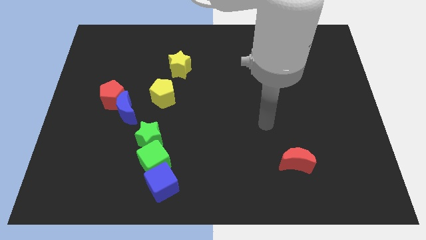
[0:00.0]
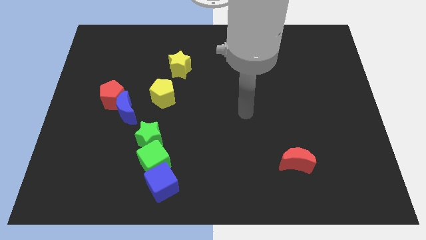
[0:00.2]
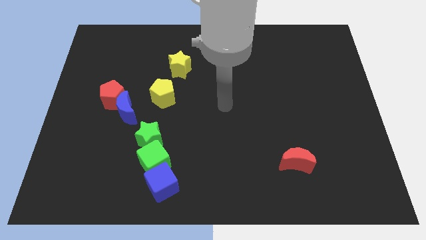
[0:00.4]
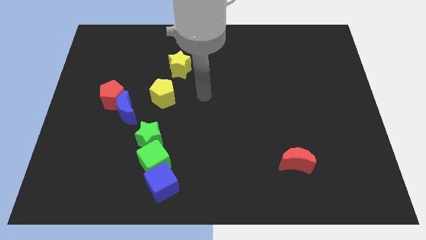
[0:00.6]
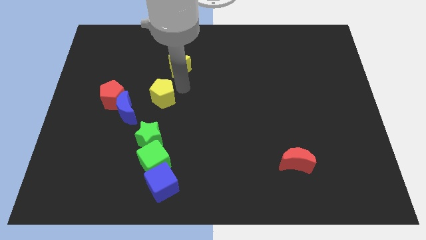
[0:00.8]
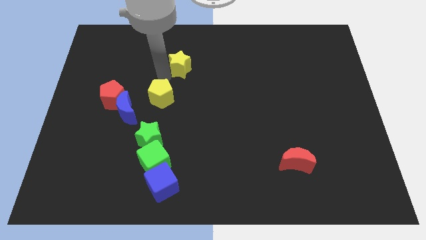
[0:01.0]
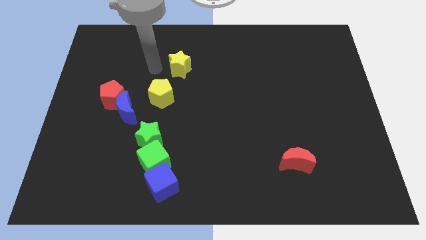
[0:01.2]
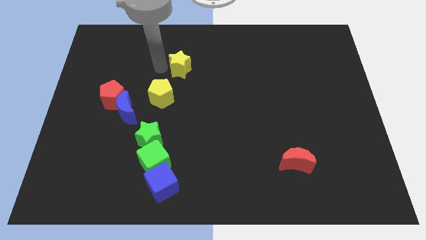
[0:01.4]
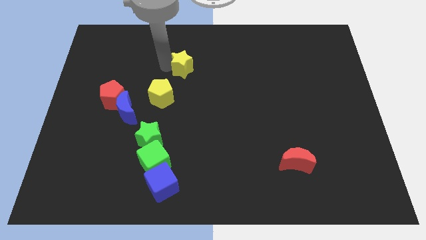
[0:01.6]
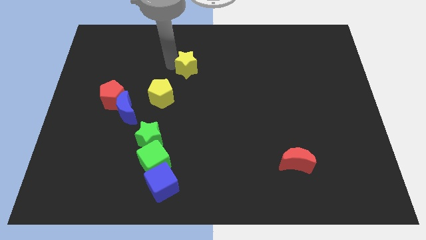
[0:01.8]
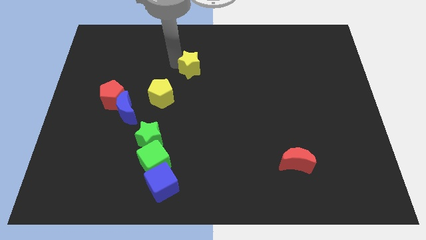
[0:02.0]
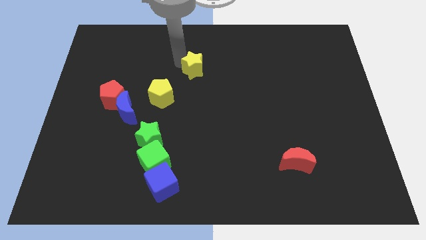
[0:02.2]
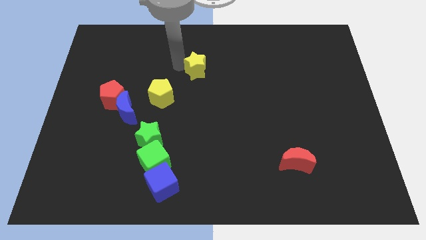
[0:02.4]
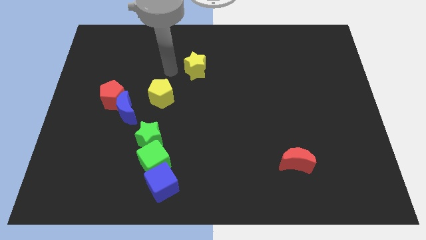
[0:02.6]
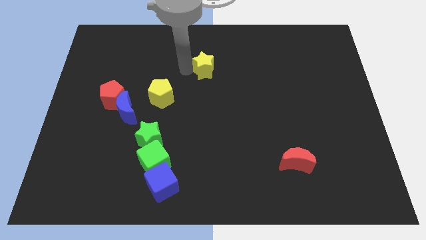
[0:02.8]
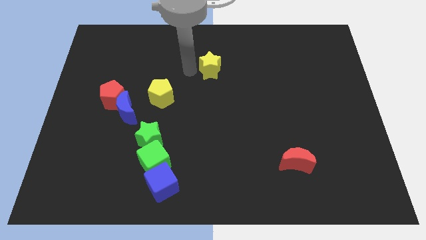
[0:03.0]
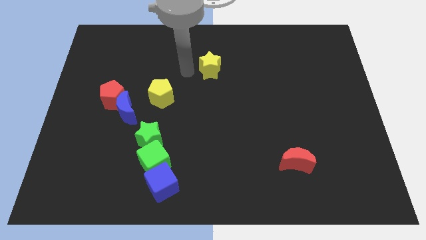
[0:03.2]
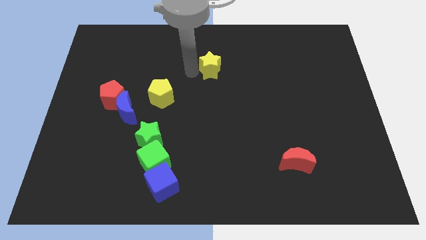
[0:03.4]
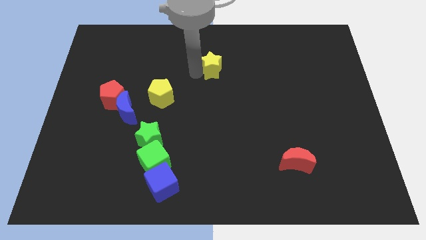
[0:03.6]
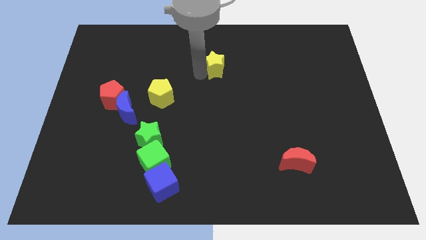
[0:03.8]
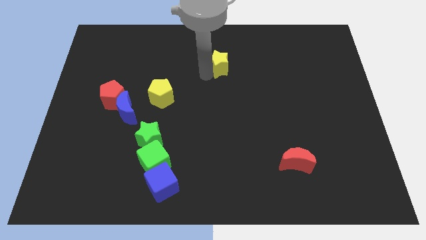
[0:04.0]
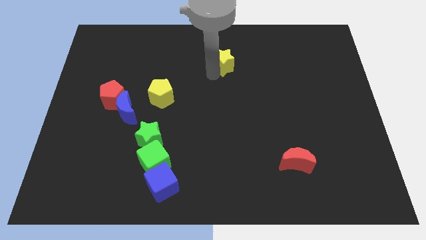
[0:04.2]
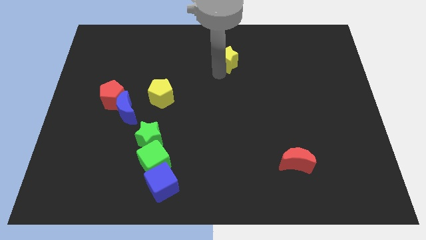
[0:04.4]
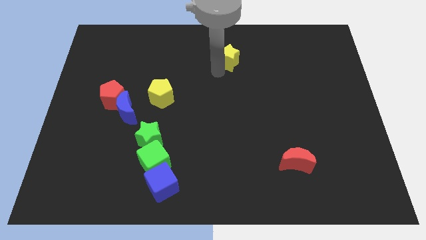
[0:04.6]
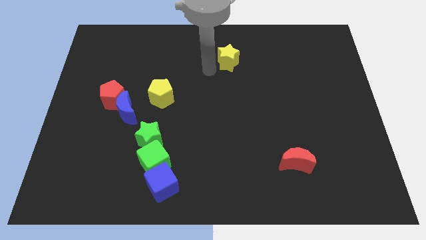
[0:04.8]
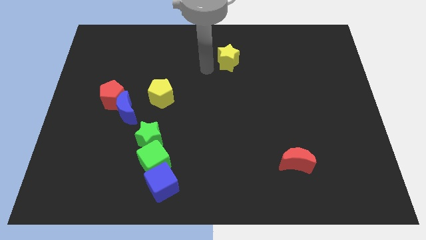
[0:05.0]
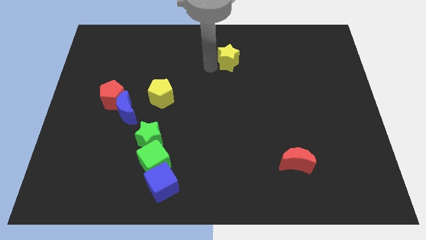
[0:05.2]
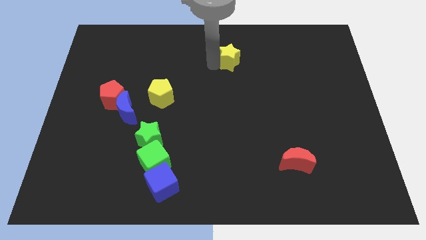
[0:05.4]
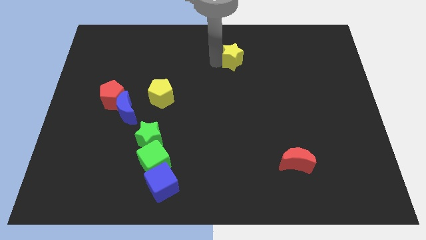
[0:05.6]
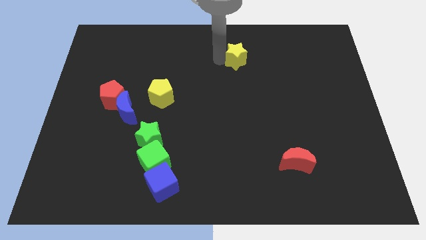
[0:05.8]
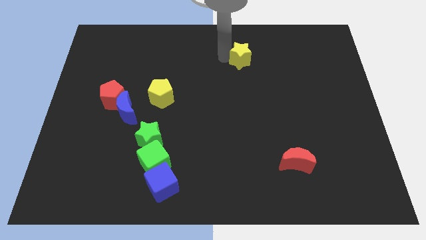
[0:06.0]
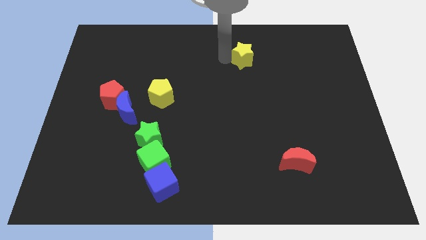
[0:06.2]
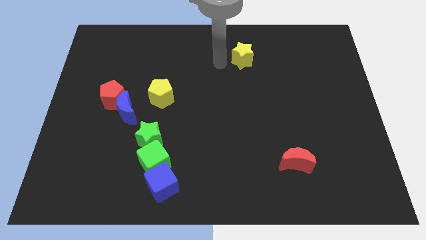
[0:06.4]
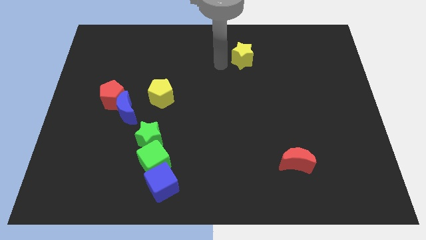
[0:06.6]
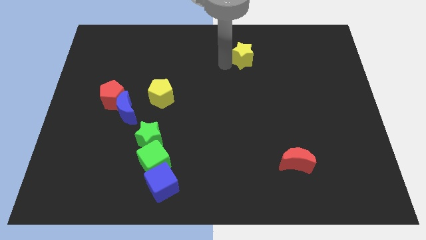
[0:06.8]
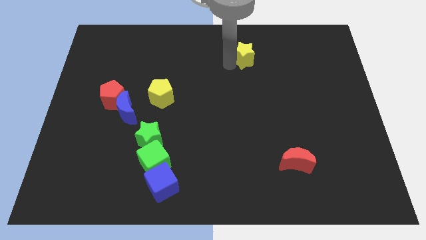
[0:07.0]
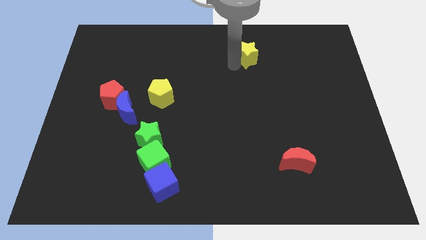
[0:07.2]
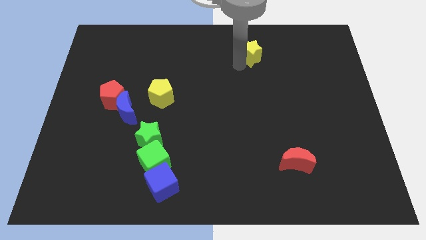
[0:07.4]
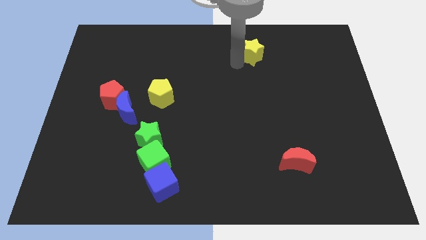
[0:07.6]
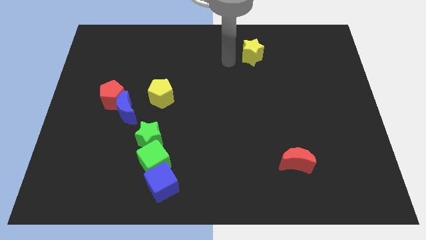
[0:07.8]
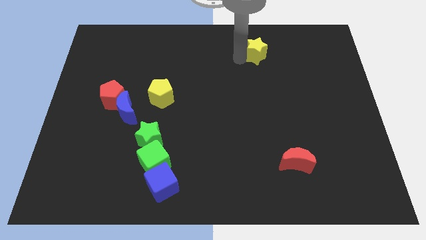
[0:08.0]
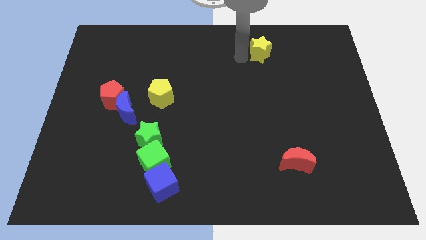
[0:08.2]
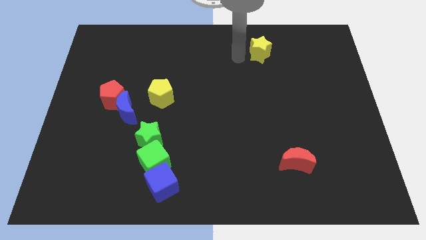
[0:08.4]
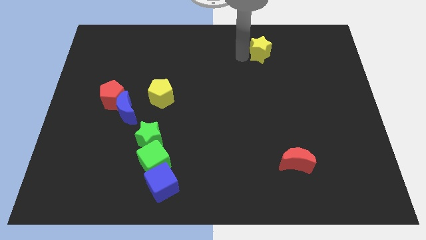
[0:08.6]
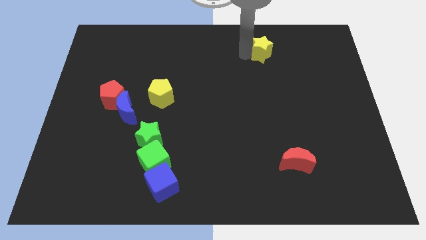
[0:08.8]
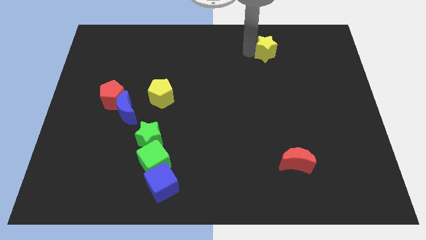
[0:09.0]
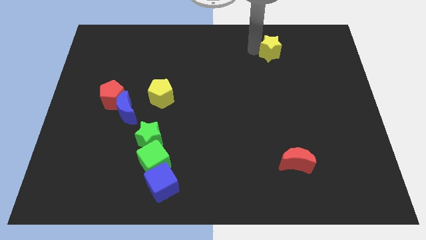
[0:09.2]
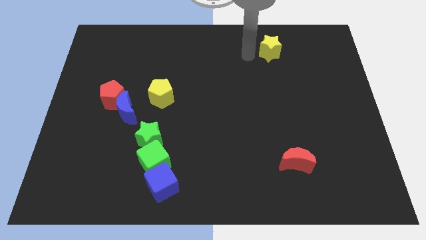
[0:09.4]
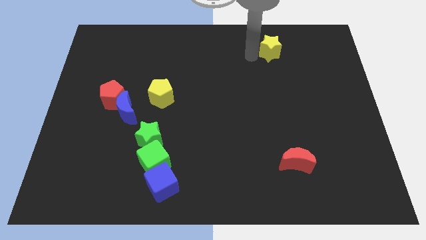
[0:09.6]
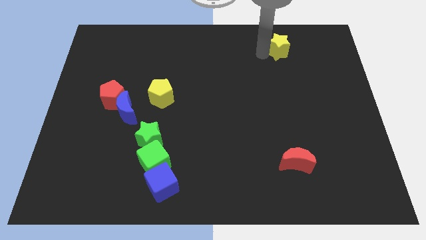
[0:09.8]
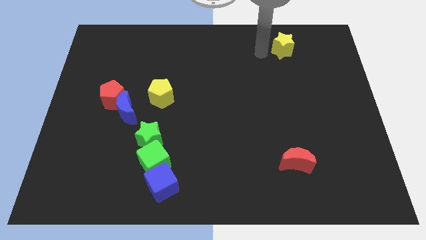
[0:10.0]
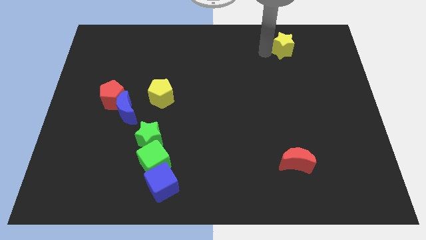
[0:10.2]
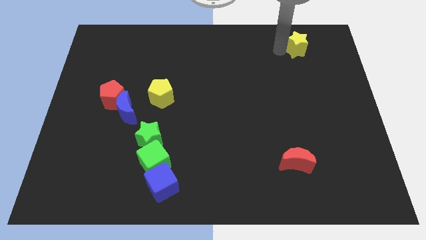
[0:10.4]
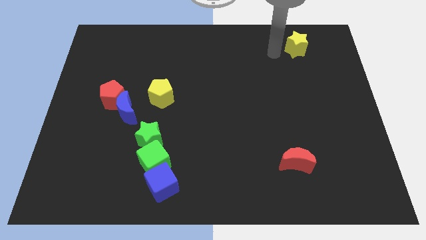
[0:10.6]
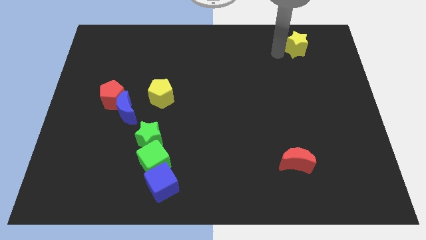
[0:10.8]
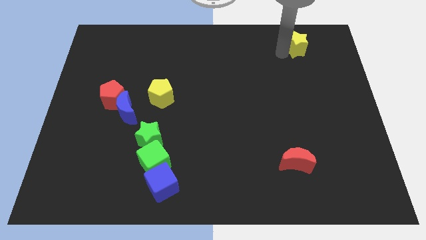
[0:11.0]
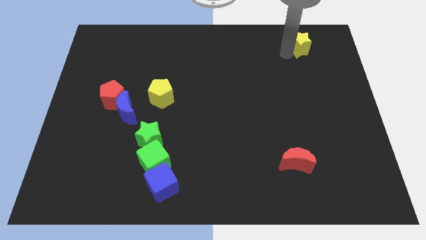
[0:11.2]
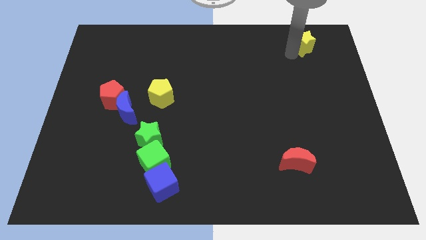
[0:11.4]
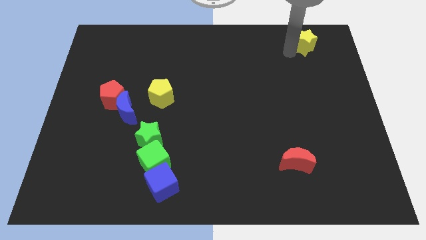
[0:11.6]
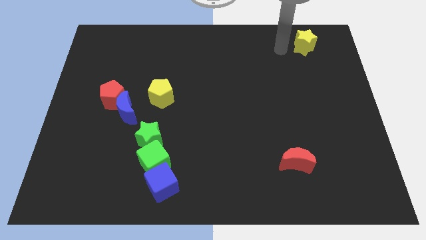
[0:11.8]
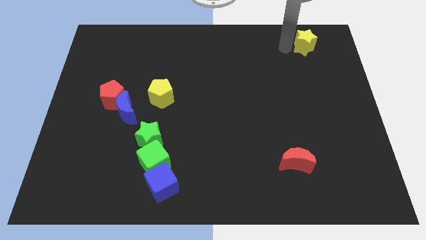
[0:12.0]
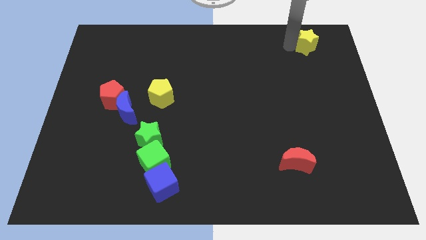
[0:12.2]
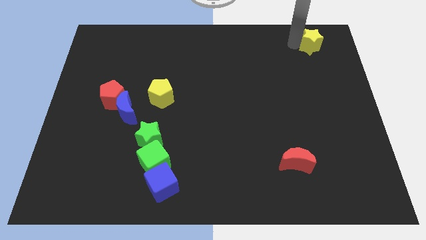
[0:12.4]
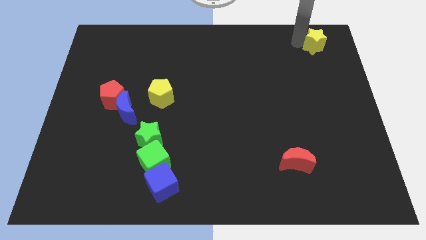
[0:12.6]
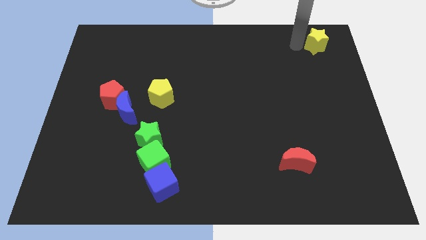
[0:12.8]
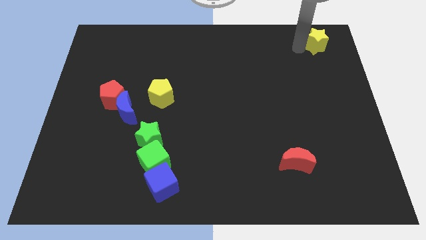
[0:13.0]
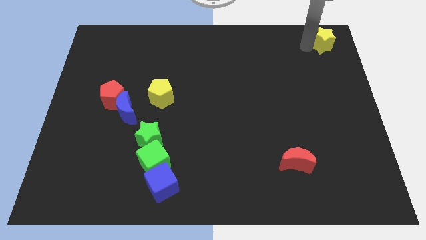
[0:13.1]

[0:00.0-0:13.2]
move the yellow star to the top right corner
